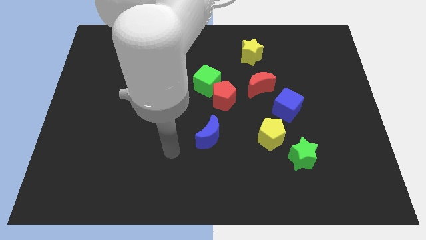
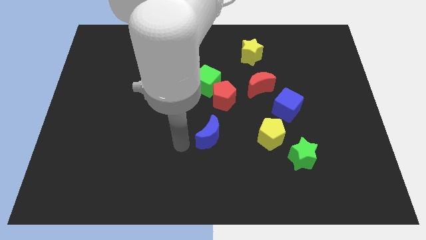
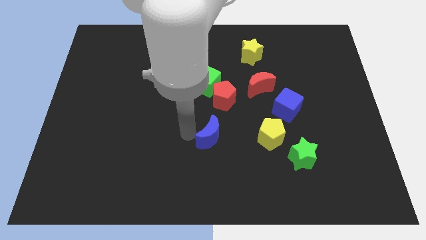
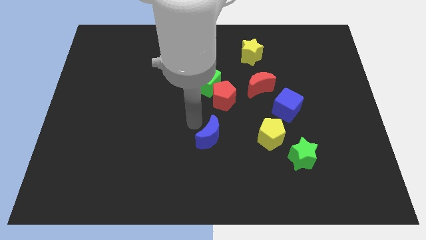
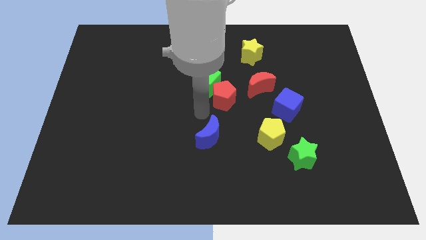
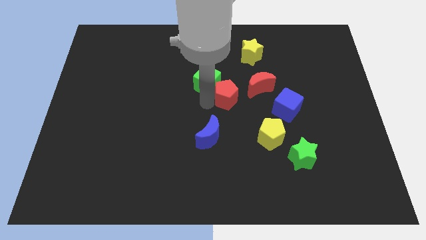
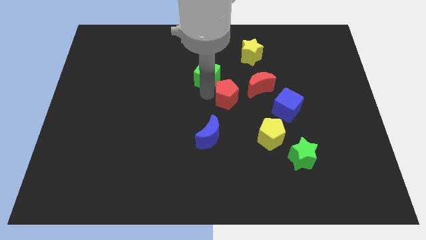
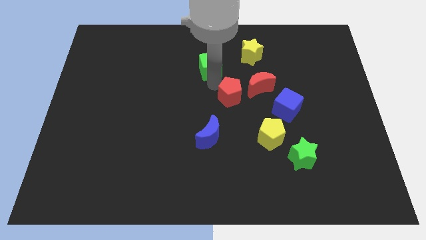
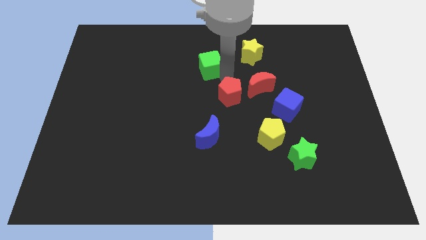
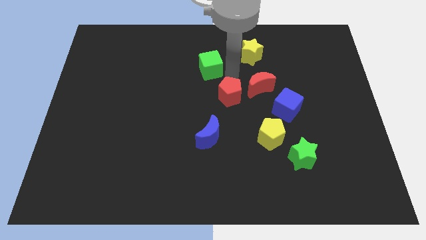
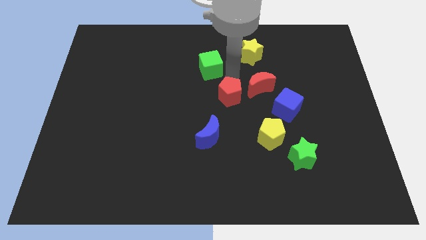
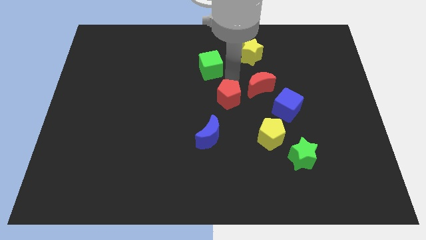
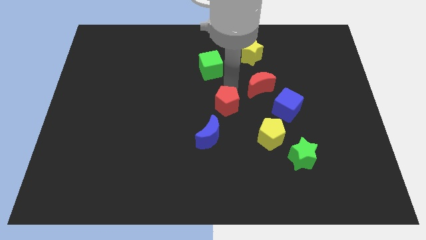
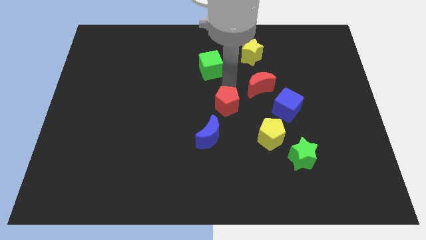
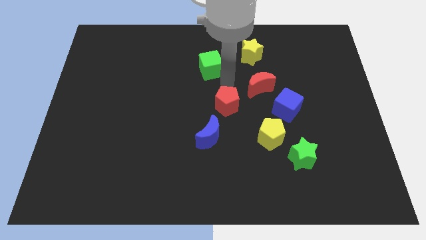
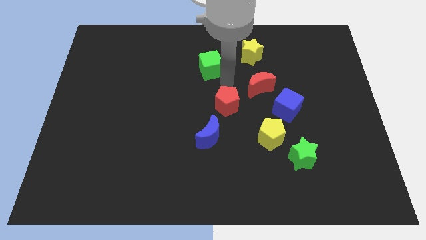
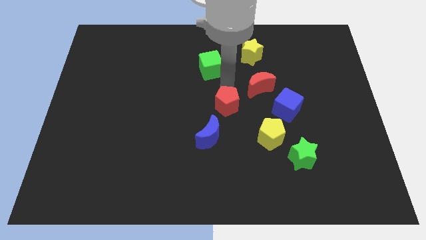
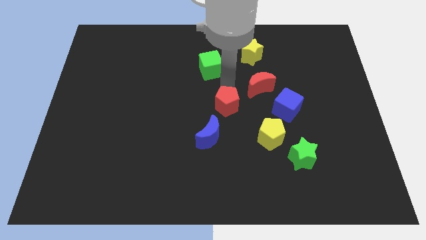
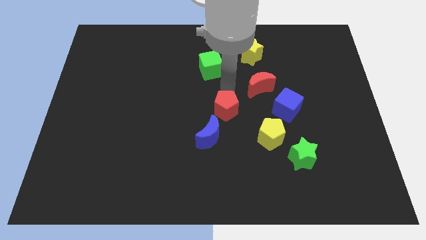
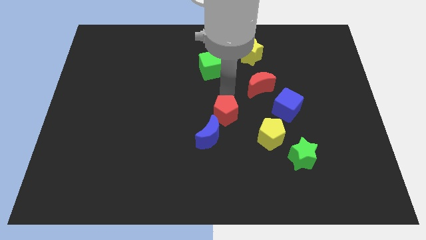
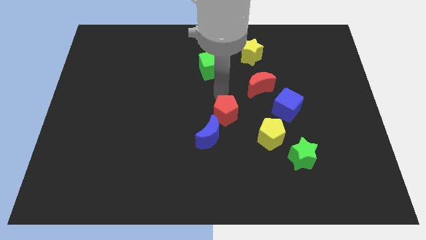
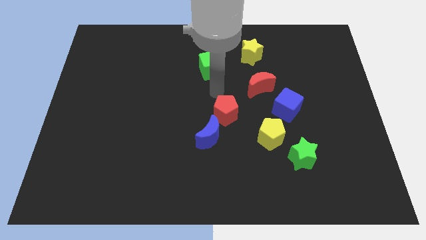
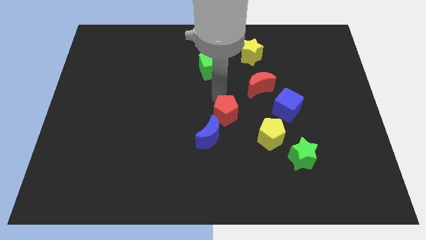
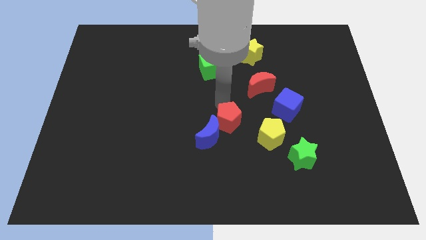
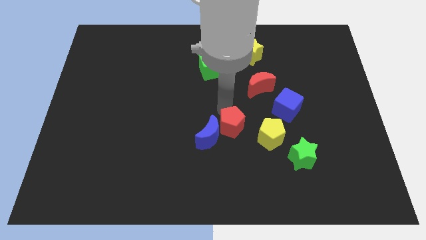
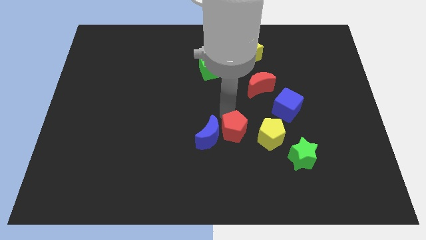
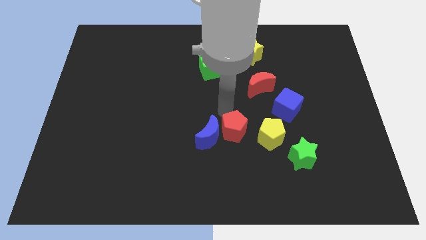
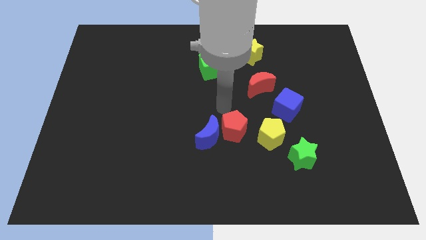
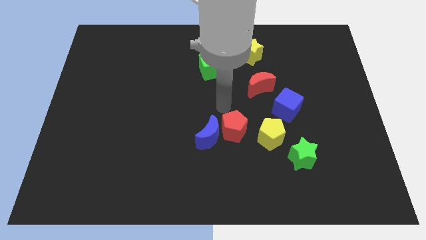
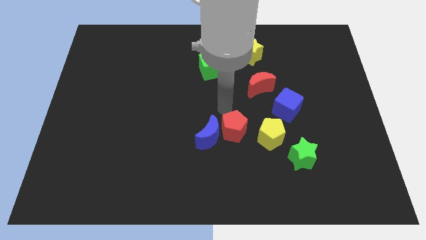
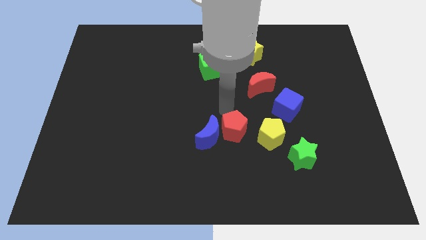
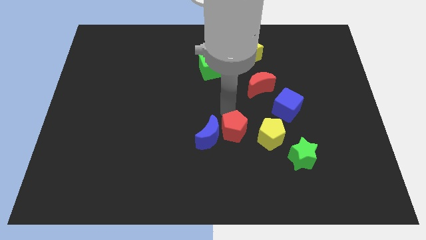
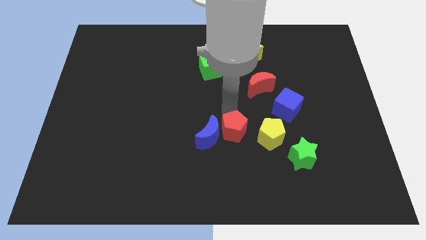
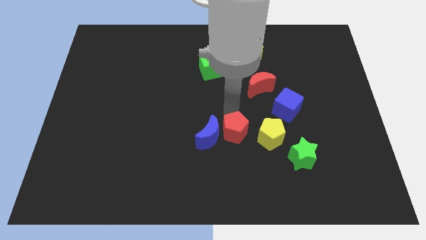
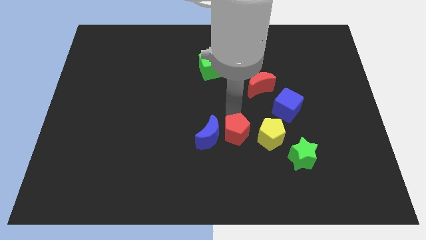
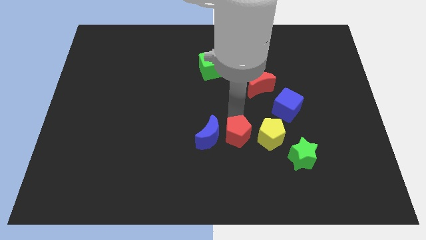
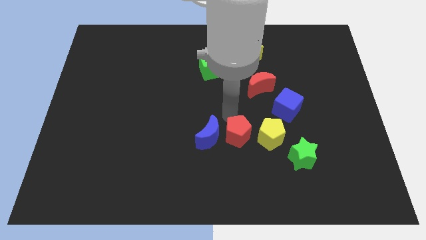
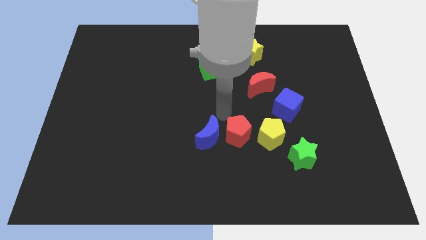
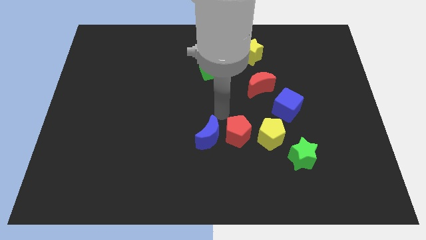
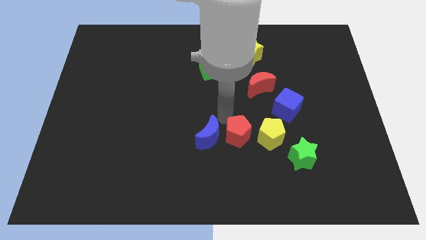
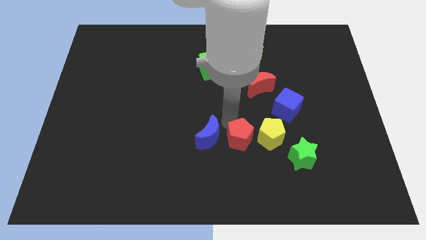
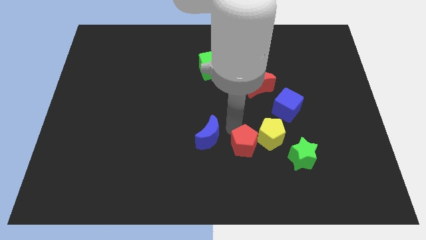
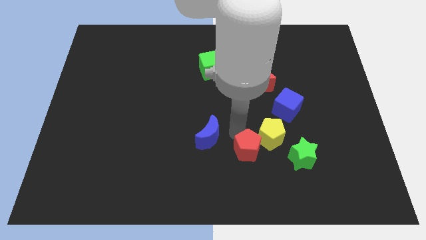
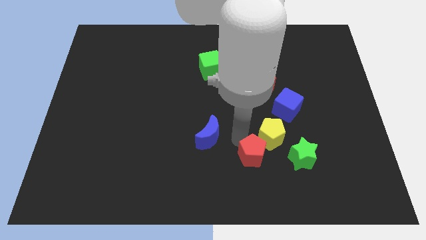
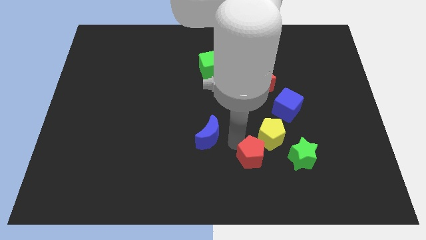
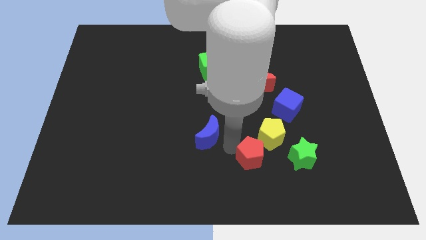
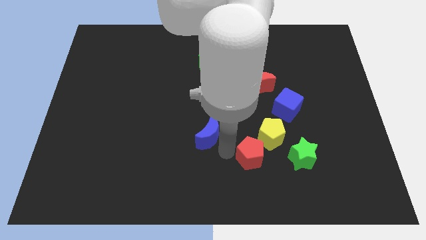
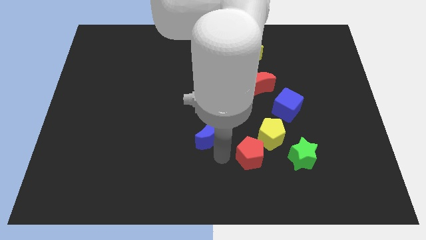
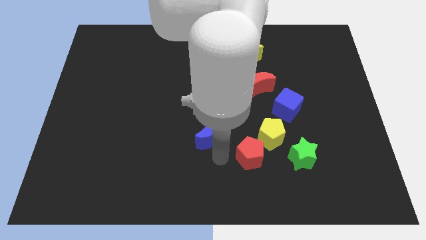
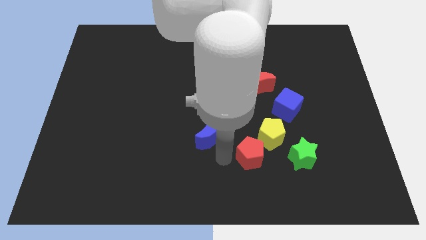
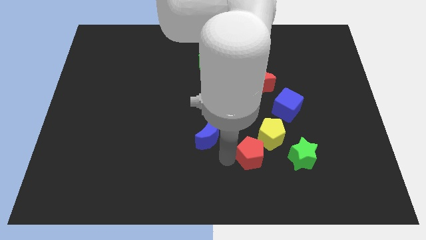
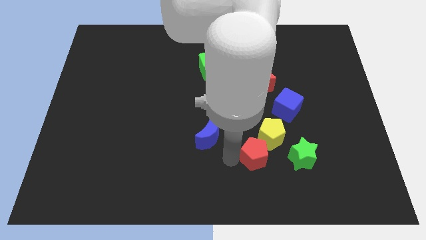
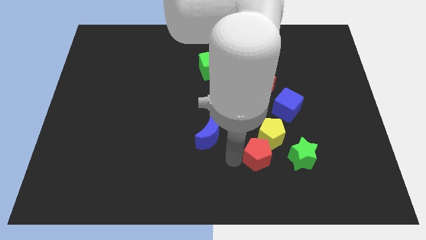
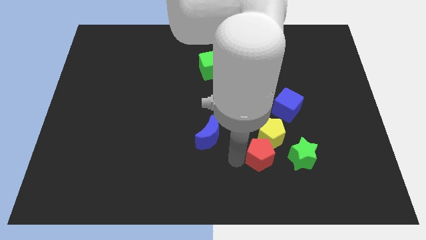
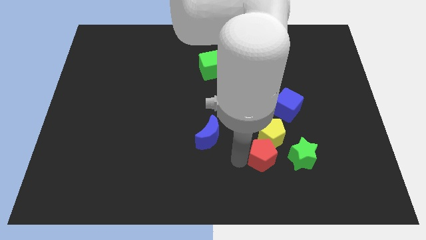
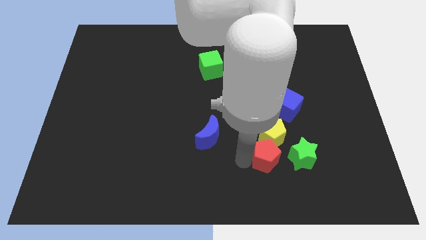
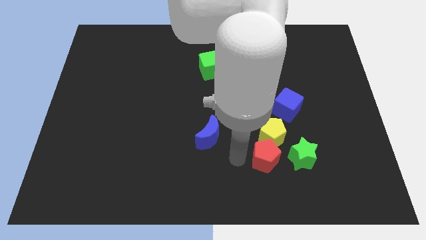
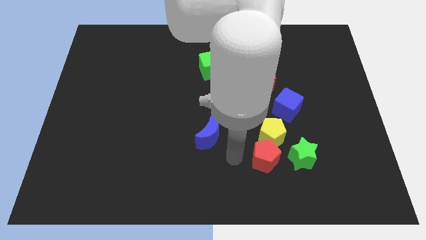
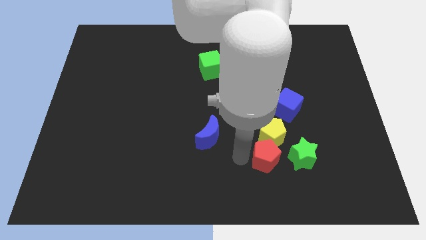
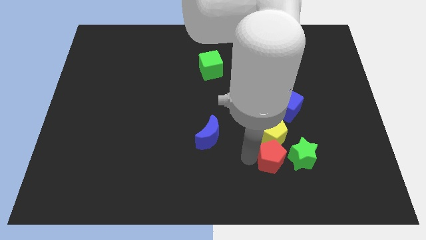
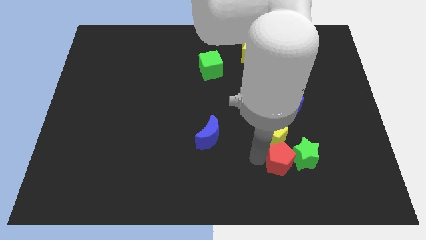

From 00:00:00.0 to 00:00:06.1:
push the red pentagon towards the green star

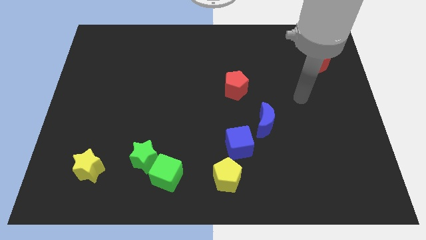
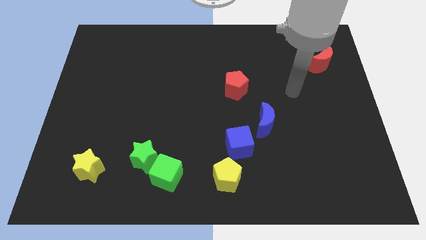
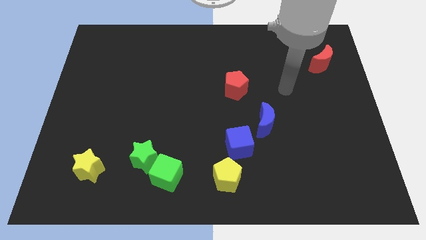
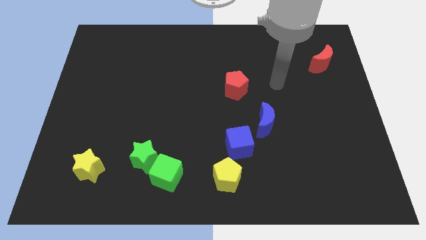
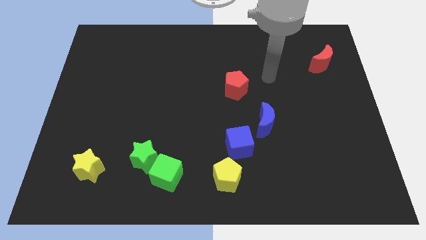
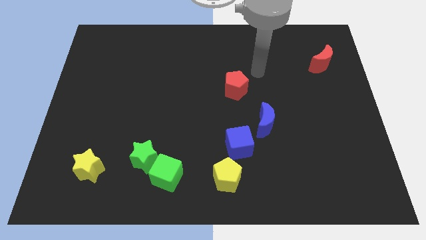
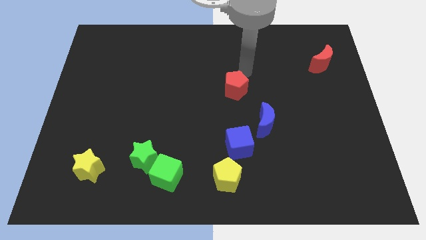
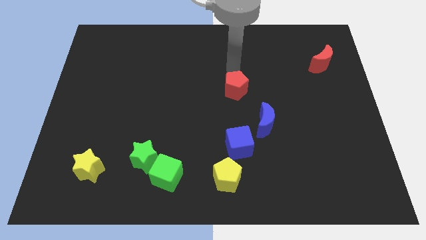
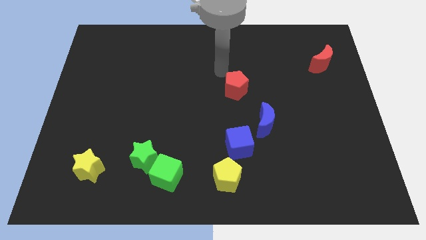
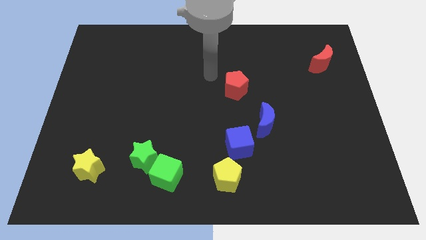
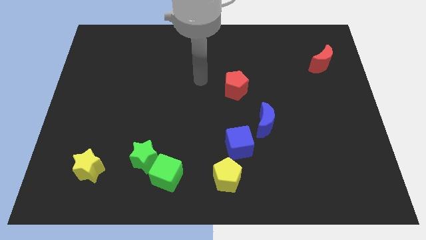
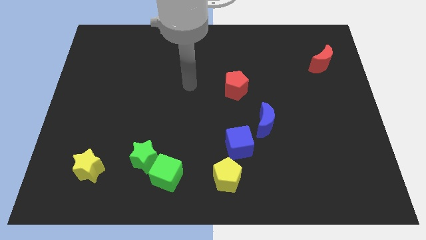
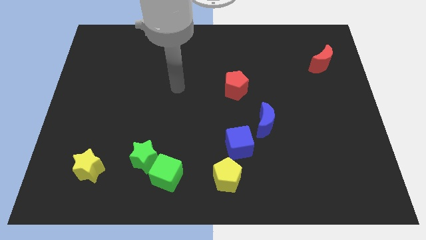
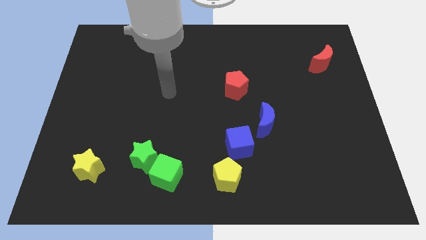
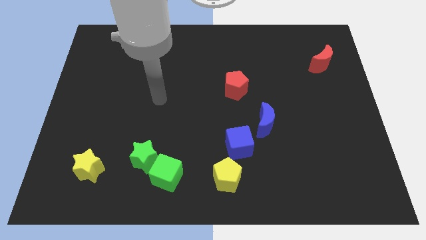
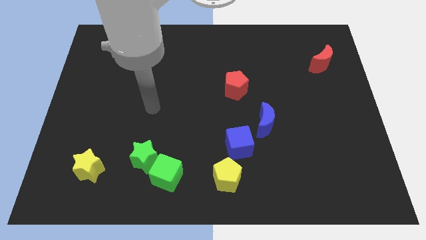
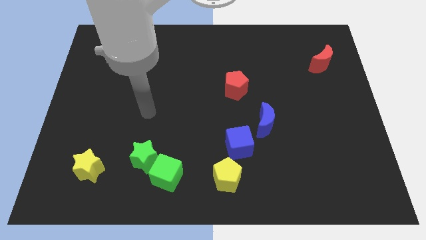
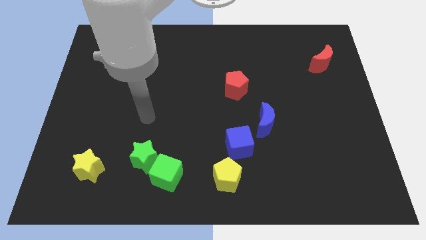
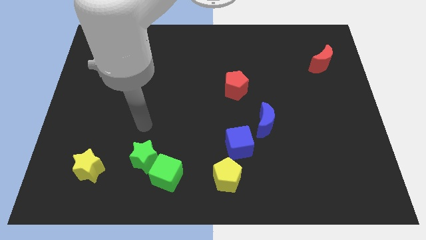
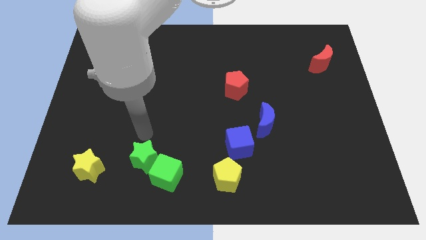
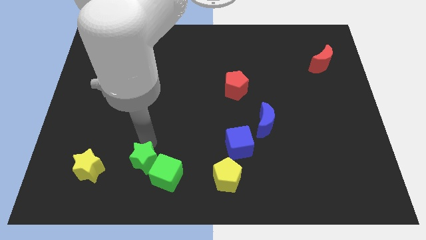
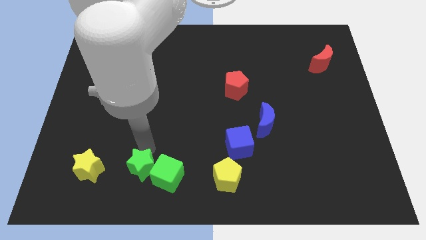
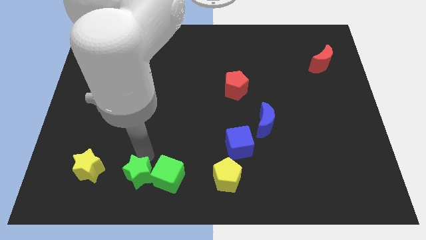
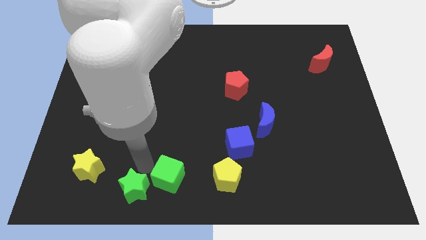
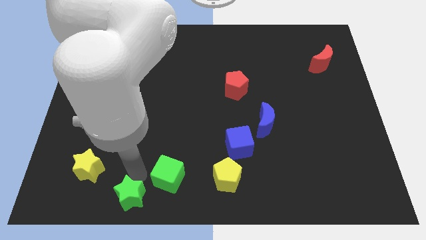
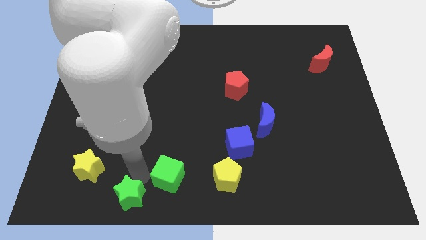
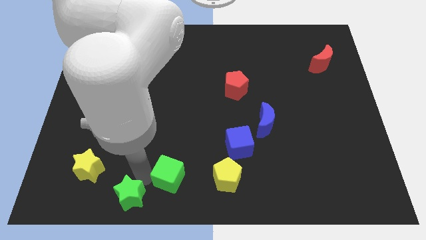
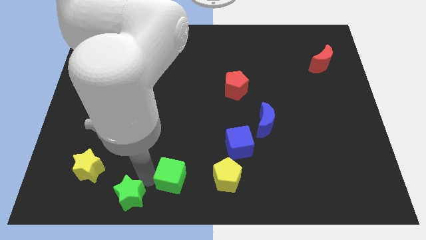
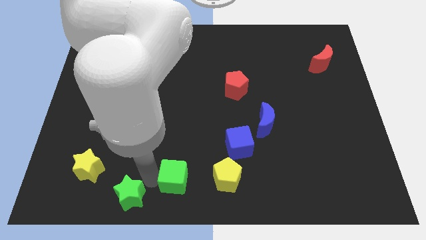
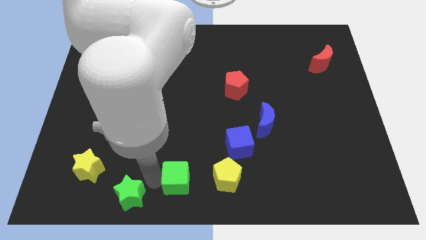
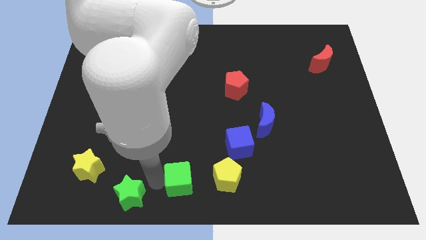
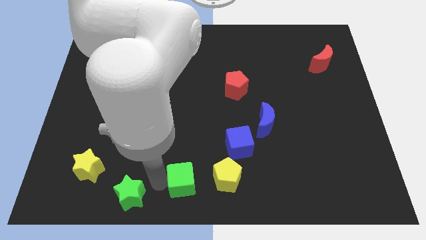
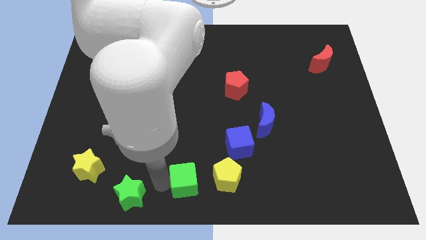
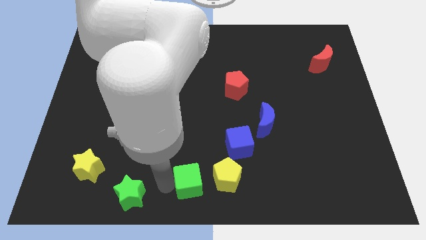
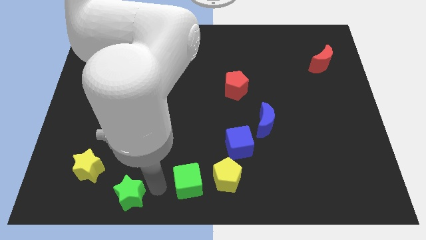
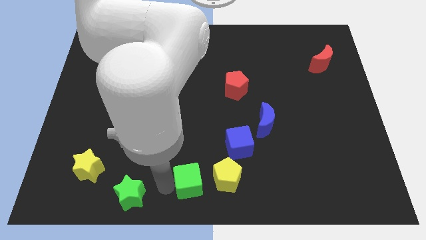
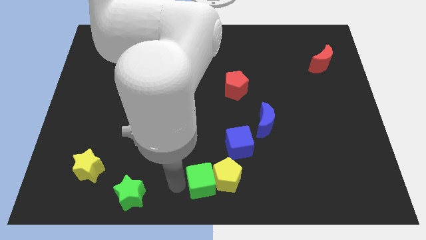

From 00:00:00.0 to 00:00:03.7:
move the green cube close to the yellow pentagon
